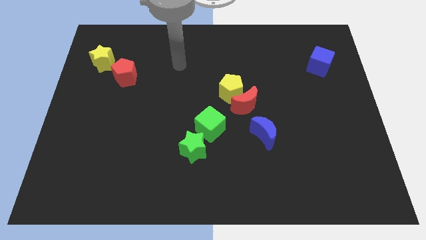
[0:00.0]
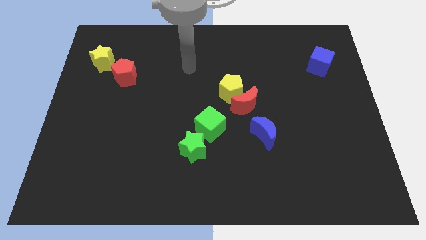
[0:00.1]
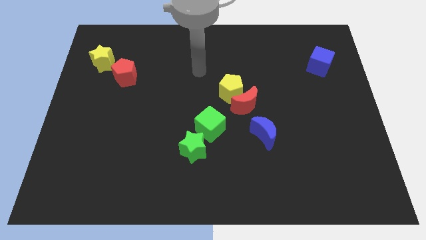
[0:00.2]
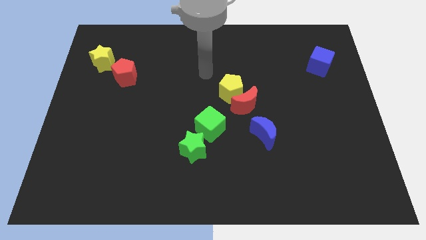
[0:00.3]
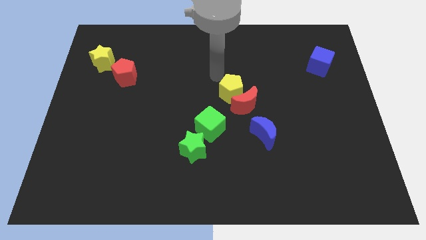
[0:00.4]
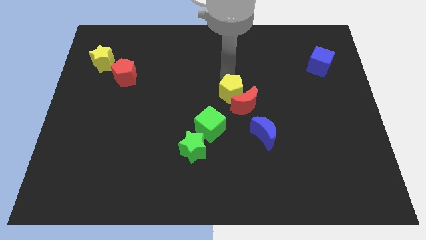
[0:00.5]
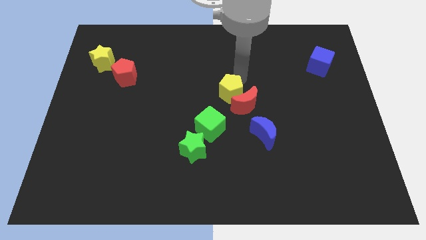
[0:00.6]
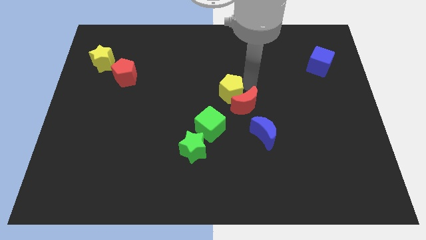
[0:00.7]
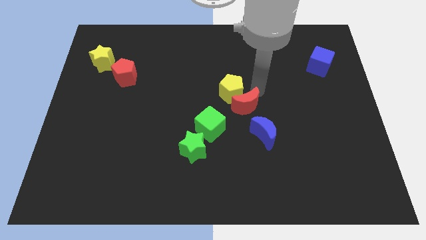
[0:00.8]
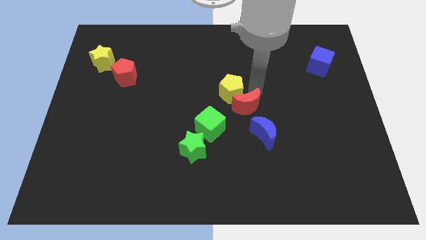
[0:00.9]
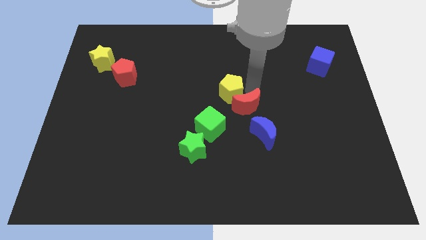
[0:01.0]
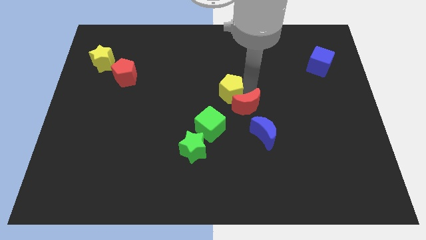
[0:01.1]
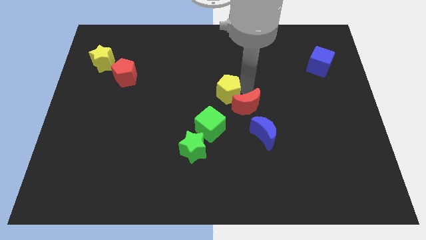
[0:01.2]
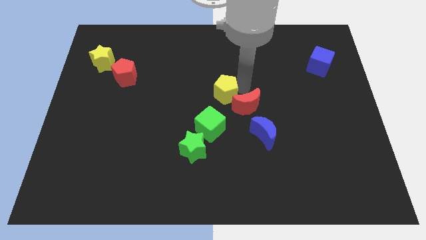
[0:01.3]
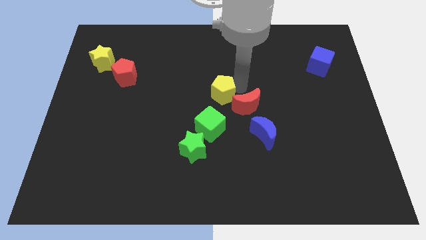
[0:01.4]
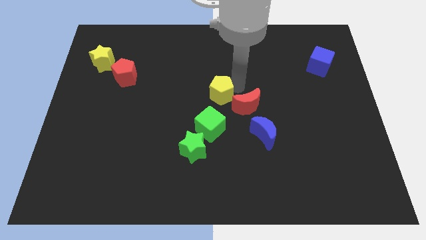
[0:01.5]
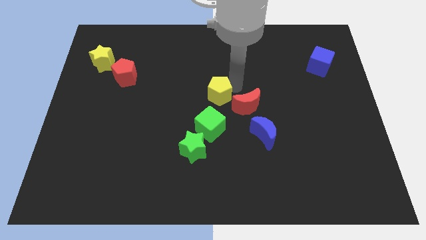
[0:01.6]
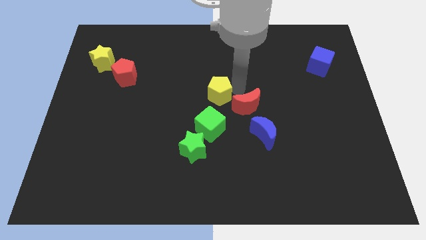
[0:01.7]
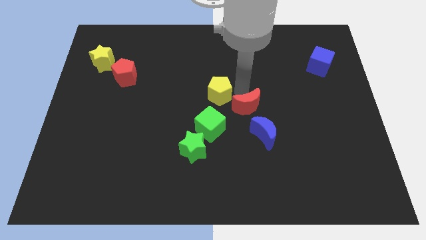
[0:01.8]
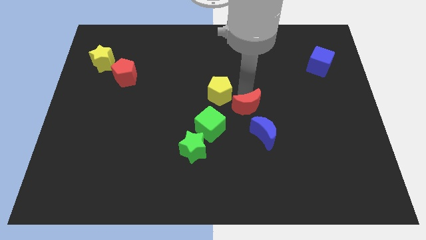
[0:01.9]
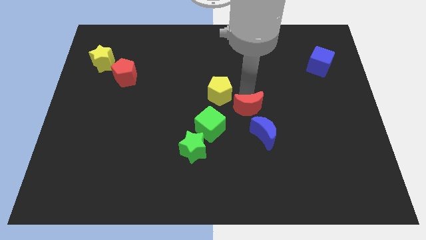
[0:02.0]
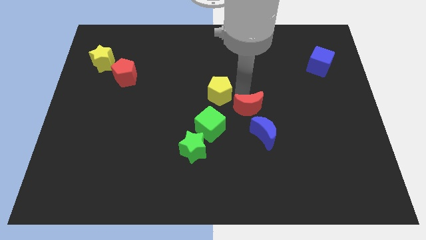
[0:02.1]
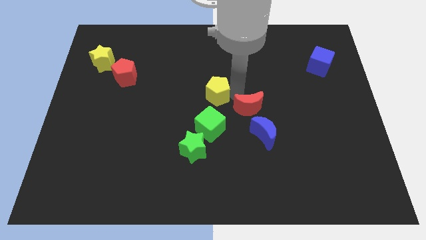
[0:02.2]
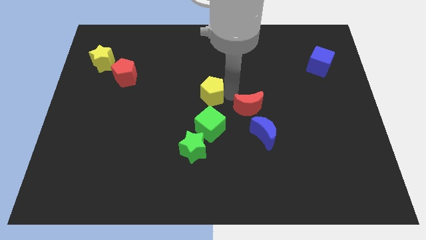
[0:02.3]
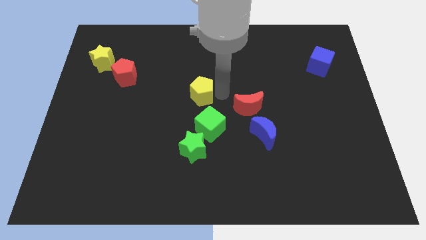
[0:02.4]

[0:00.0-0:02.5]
move the yellow pentagon a little bit left

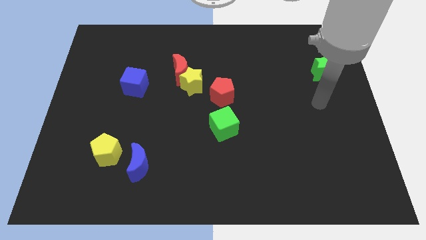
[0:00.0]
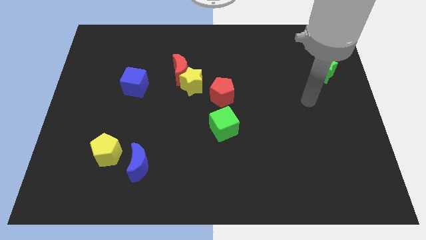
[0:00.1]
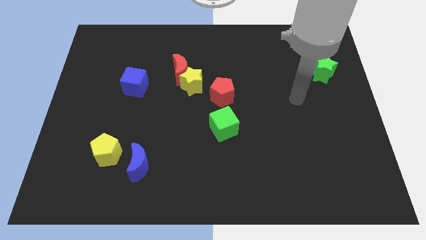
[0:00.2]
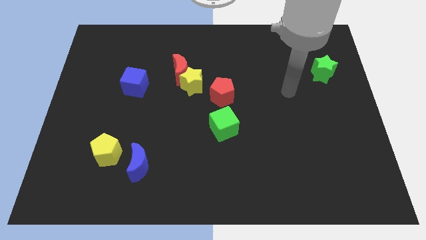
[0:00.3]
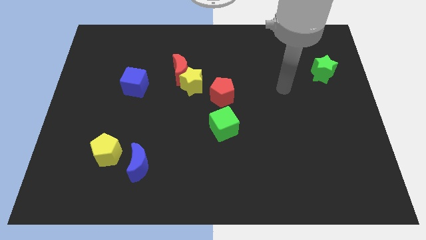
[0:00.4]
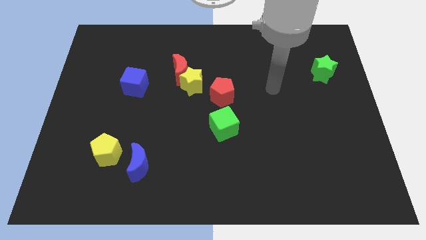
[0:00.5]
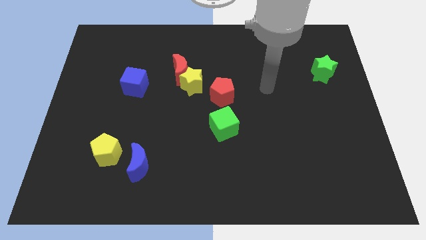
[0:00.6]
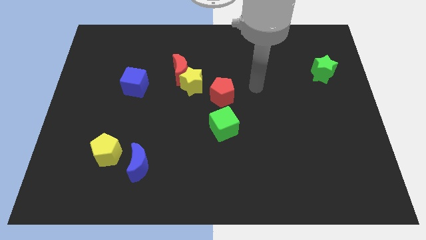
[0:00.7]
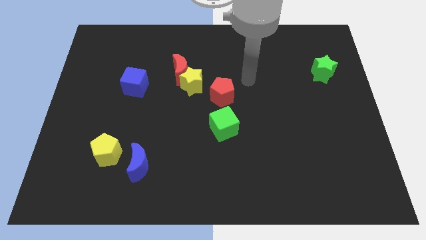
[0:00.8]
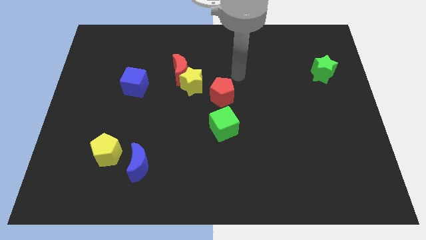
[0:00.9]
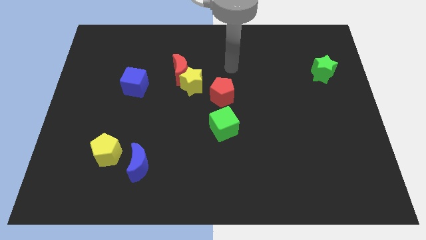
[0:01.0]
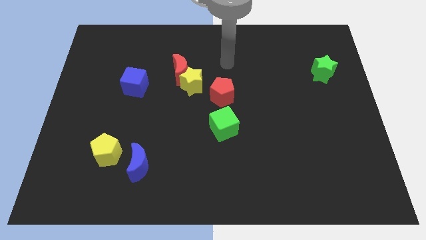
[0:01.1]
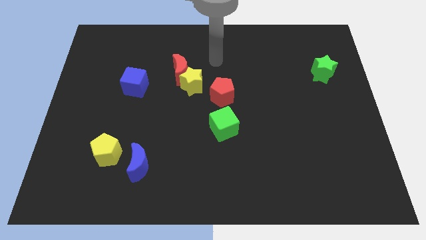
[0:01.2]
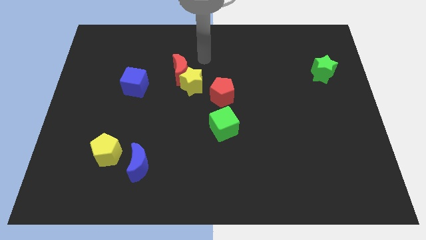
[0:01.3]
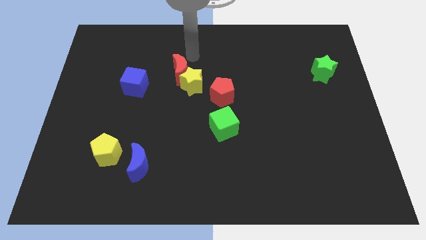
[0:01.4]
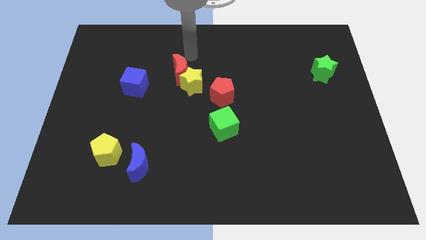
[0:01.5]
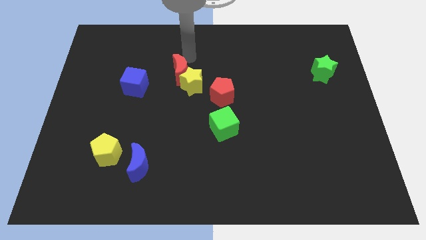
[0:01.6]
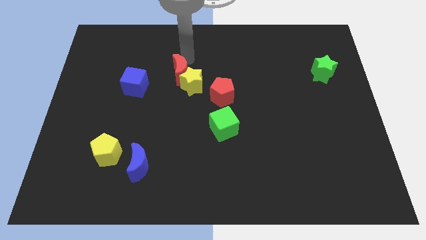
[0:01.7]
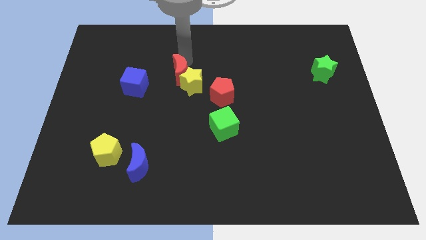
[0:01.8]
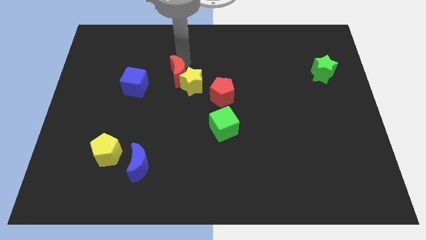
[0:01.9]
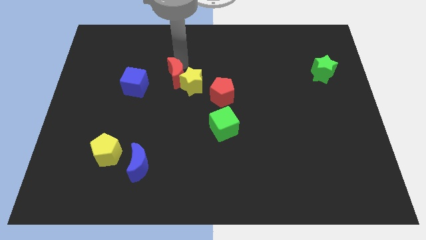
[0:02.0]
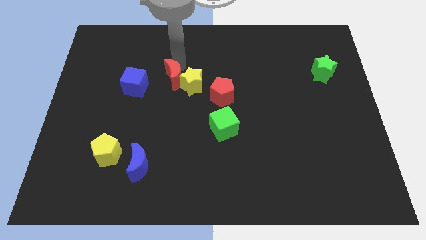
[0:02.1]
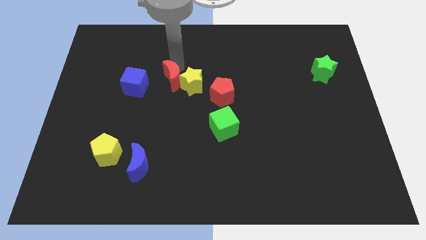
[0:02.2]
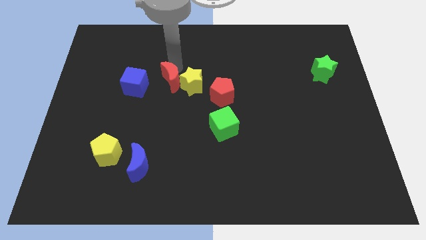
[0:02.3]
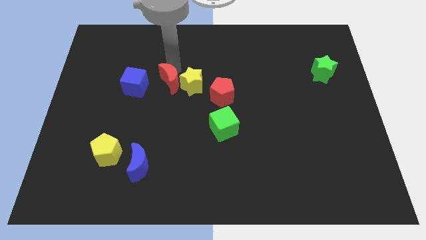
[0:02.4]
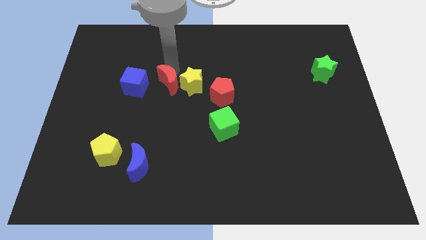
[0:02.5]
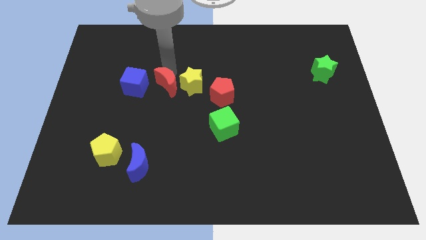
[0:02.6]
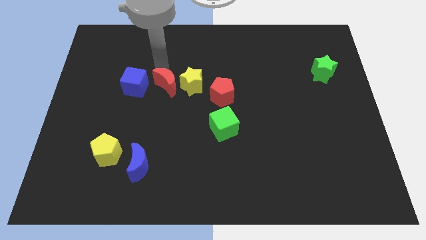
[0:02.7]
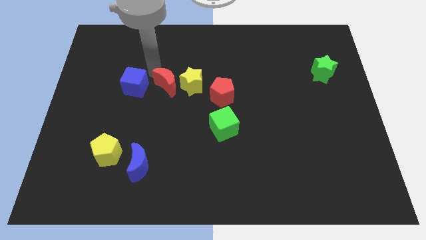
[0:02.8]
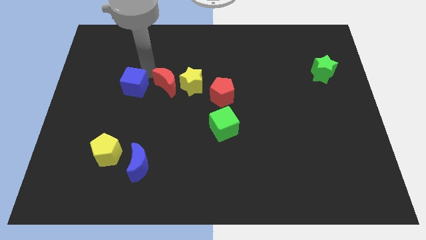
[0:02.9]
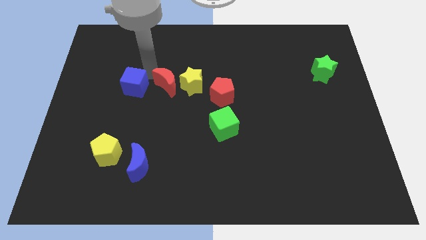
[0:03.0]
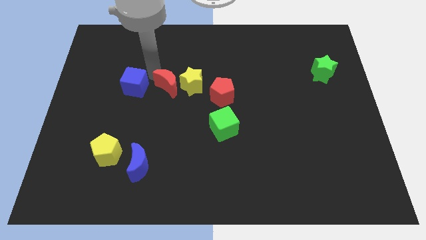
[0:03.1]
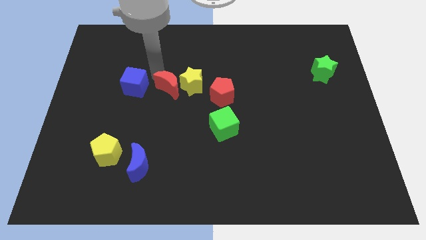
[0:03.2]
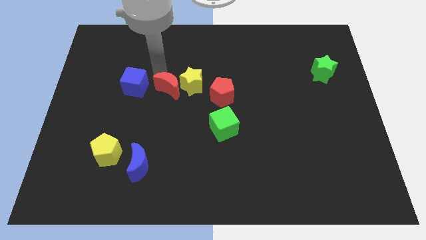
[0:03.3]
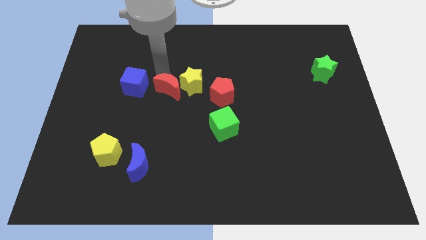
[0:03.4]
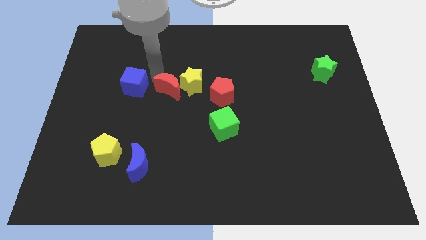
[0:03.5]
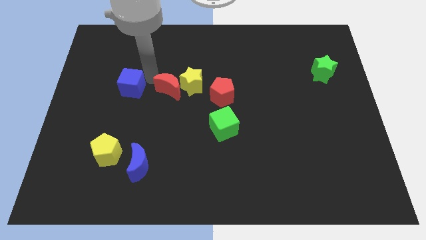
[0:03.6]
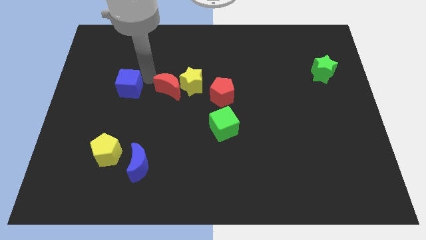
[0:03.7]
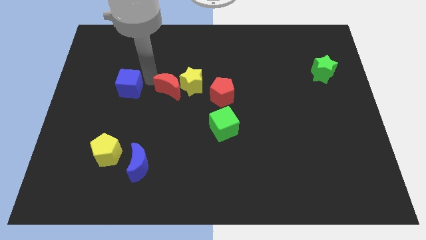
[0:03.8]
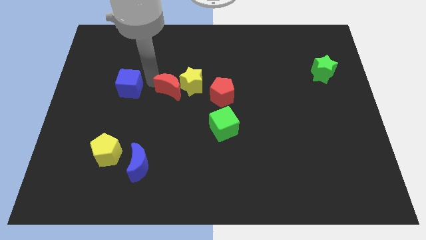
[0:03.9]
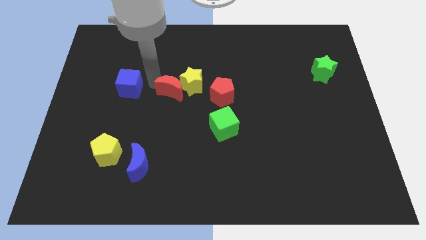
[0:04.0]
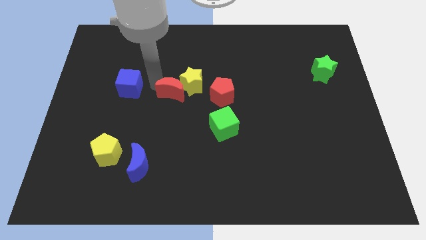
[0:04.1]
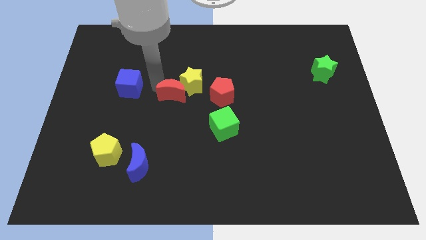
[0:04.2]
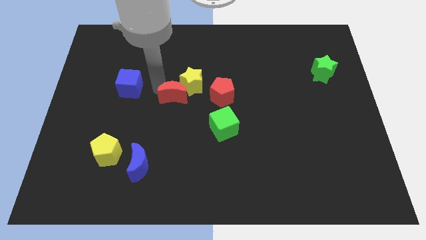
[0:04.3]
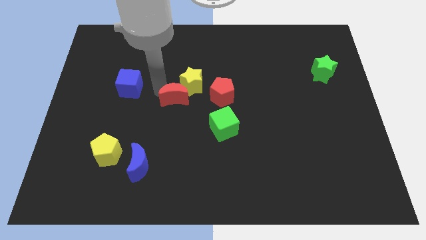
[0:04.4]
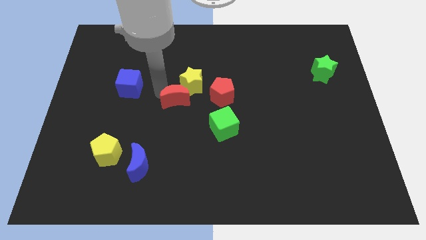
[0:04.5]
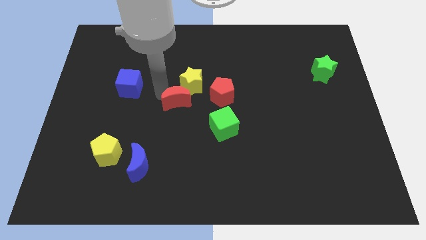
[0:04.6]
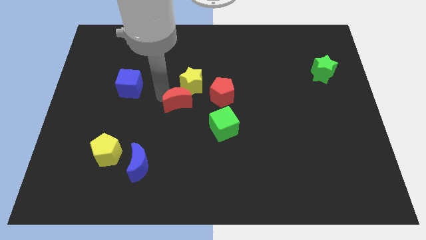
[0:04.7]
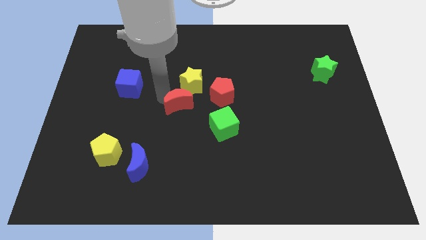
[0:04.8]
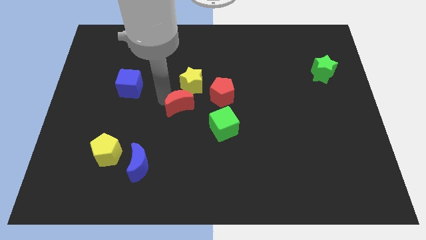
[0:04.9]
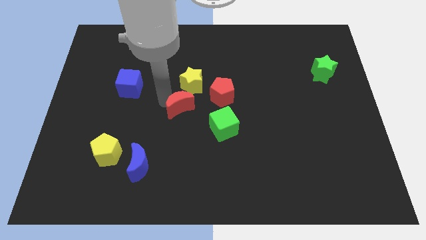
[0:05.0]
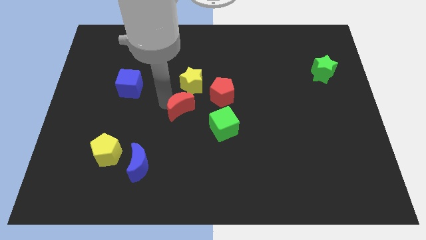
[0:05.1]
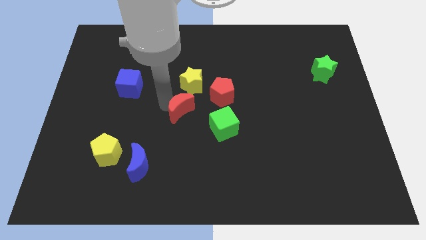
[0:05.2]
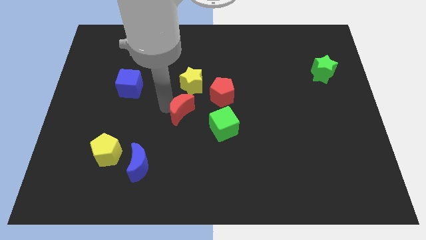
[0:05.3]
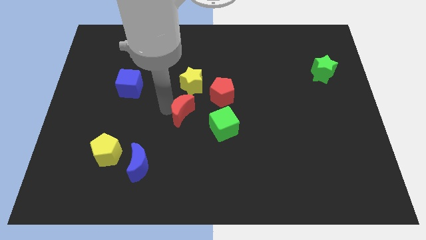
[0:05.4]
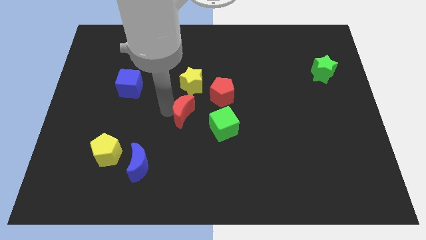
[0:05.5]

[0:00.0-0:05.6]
move the red moon somewhat down and right diagonally

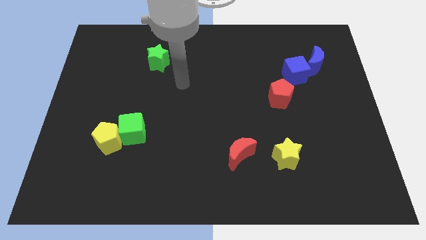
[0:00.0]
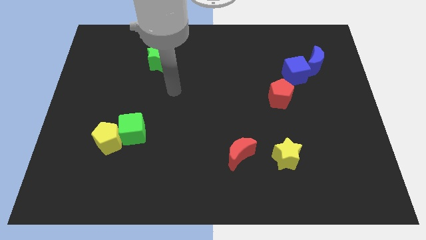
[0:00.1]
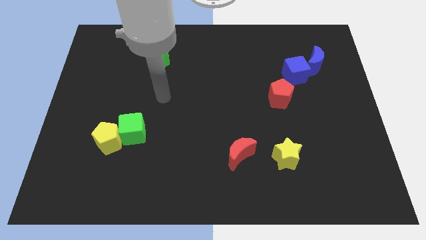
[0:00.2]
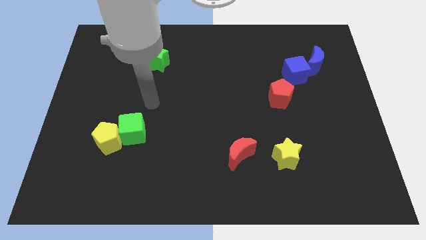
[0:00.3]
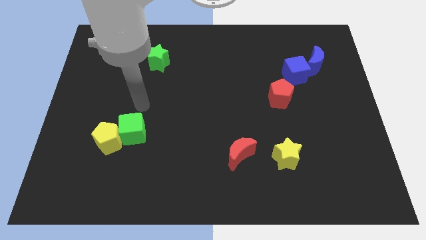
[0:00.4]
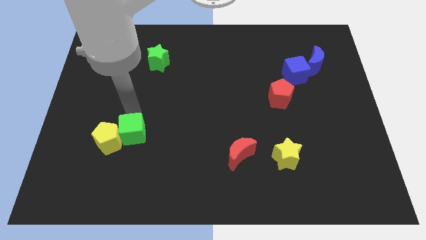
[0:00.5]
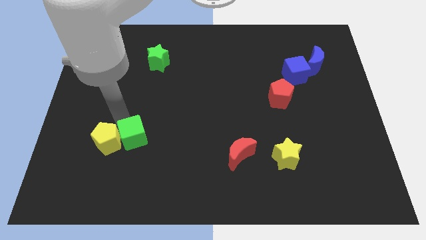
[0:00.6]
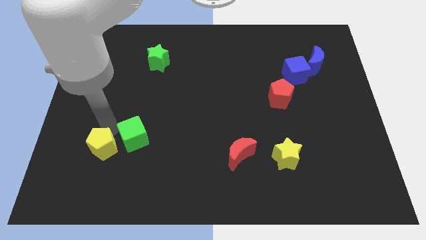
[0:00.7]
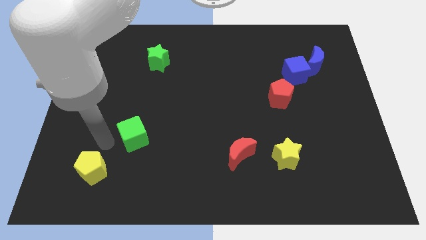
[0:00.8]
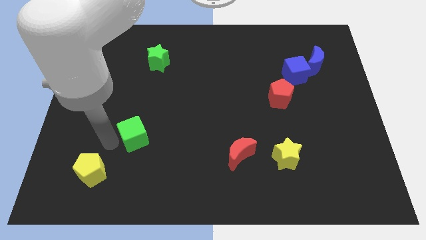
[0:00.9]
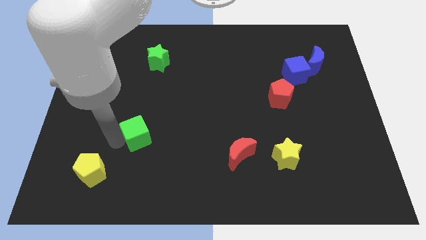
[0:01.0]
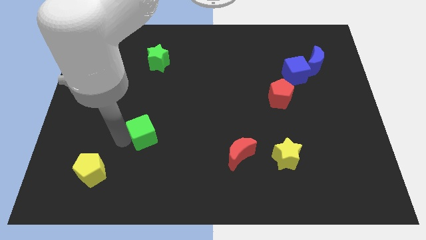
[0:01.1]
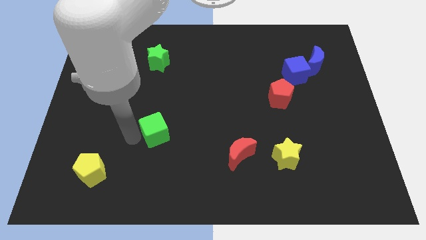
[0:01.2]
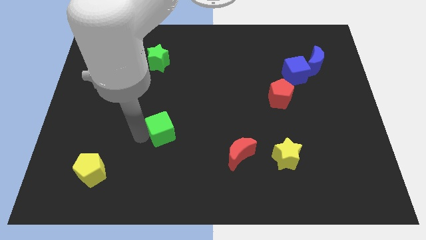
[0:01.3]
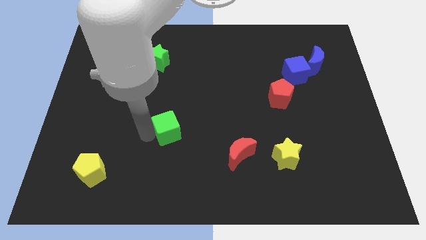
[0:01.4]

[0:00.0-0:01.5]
slide the green cube slightly right
